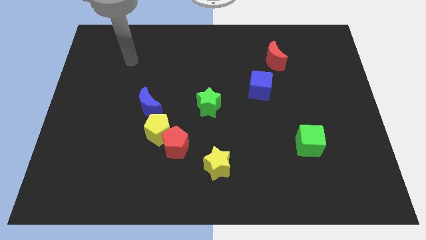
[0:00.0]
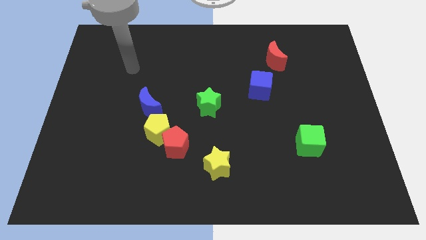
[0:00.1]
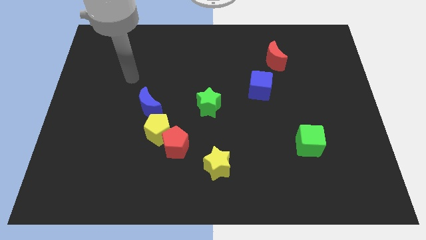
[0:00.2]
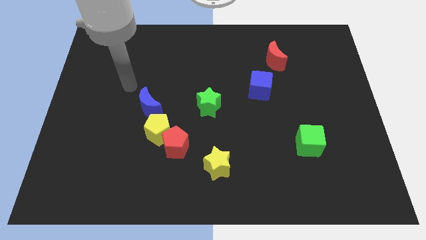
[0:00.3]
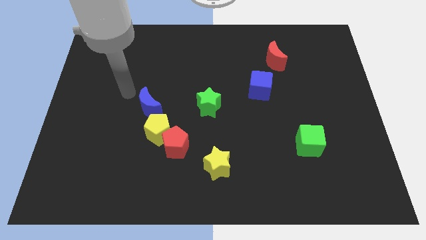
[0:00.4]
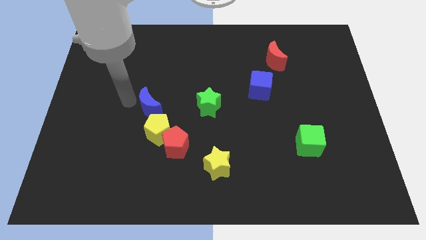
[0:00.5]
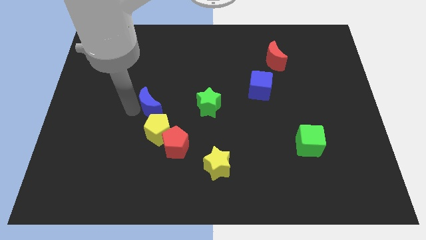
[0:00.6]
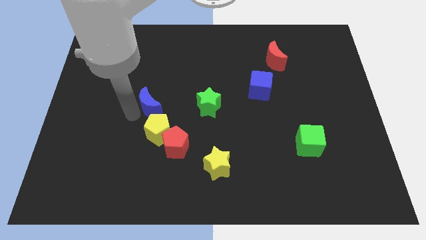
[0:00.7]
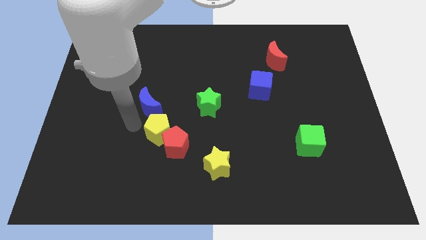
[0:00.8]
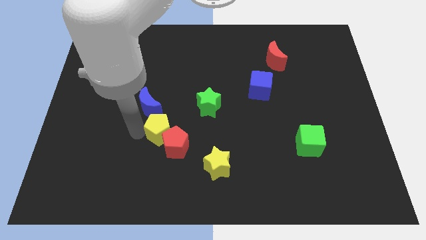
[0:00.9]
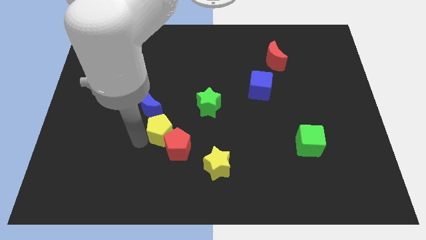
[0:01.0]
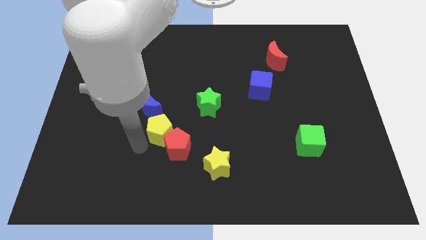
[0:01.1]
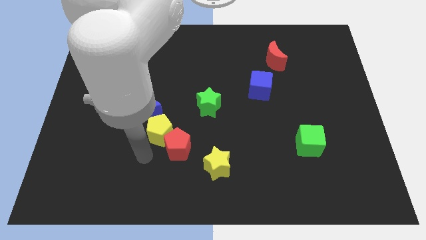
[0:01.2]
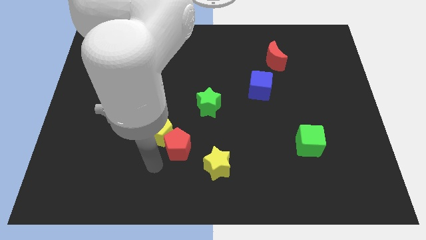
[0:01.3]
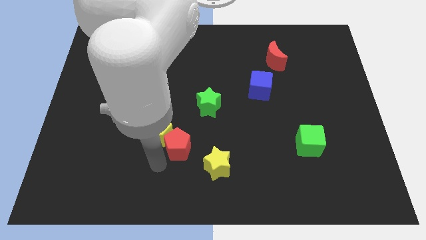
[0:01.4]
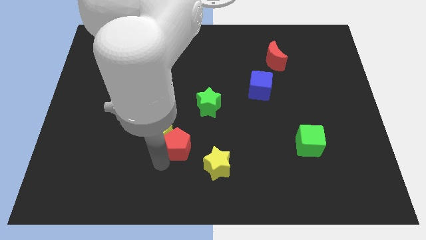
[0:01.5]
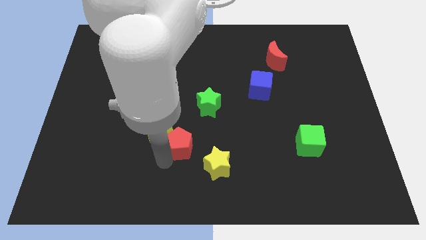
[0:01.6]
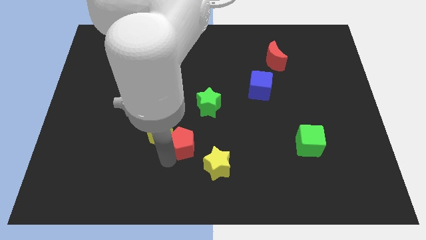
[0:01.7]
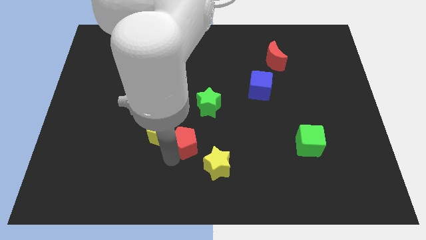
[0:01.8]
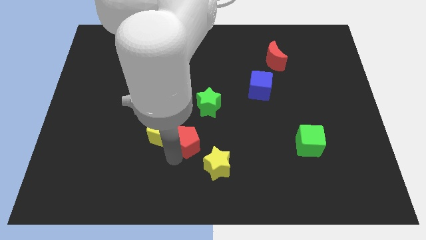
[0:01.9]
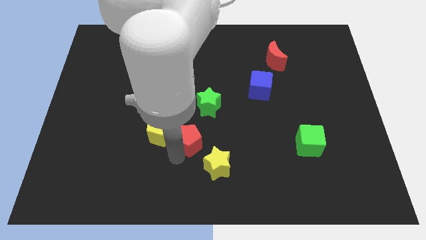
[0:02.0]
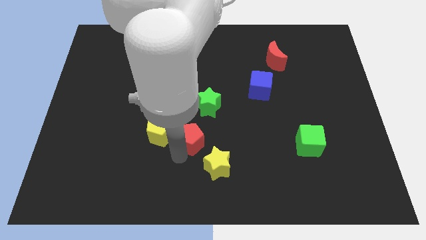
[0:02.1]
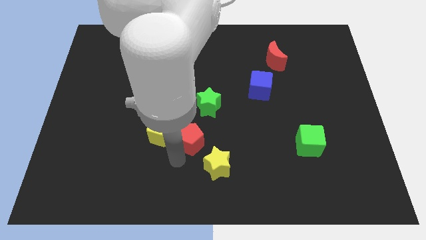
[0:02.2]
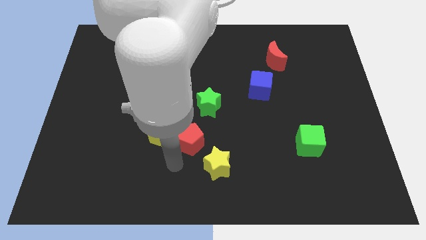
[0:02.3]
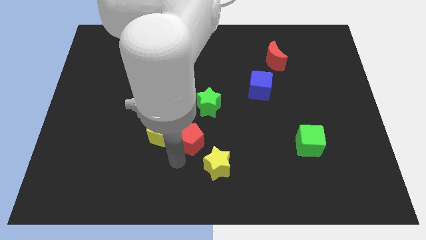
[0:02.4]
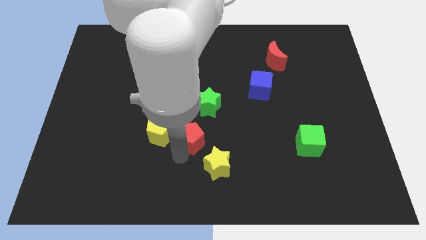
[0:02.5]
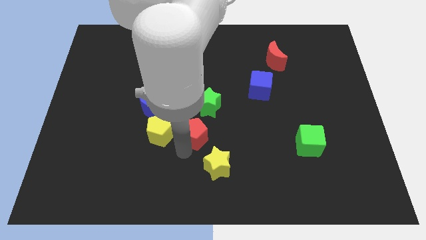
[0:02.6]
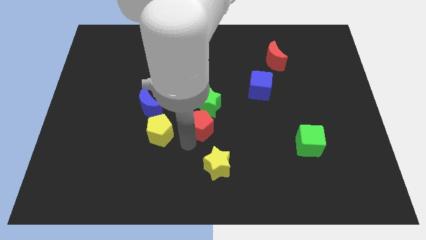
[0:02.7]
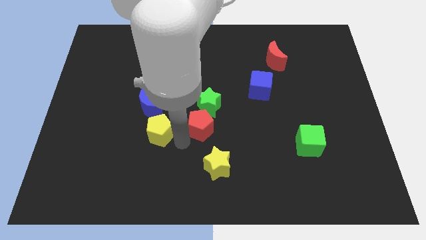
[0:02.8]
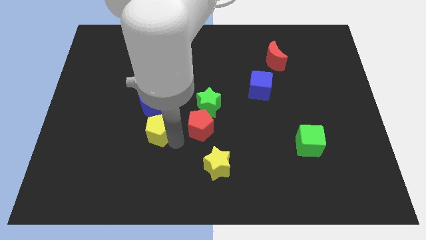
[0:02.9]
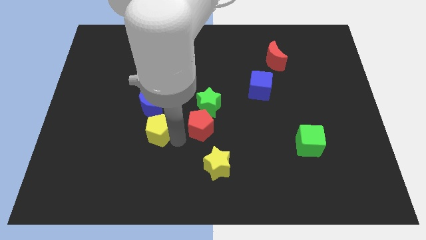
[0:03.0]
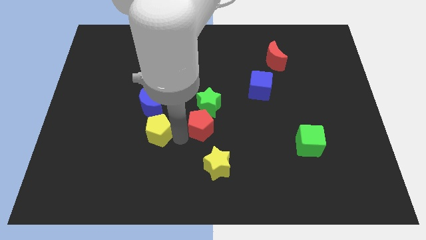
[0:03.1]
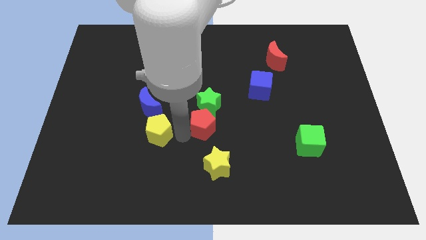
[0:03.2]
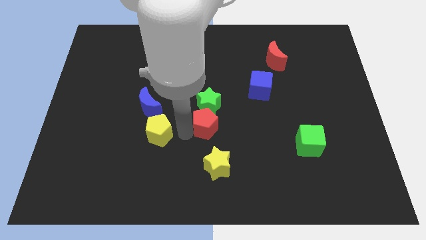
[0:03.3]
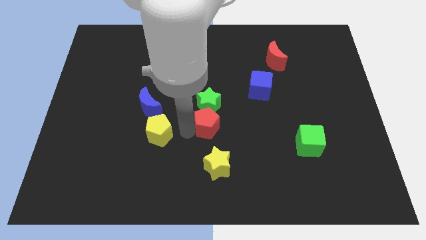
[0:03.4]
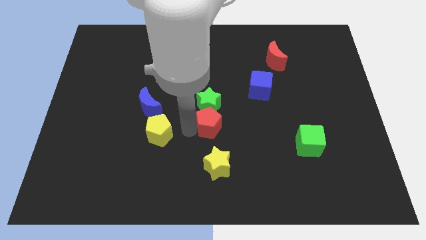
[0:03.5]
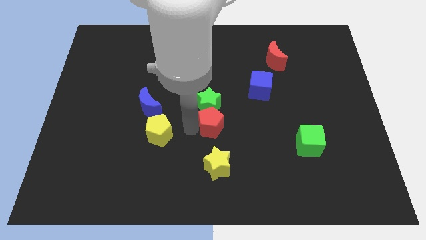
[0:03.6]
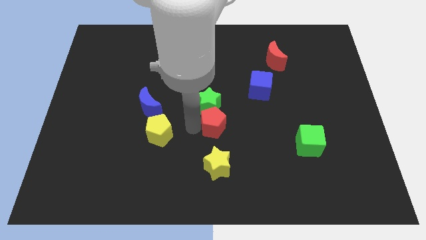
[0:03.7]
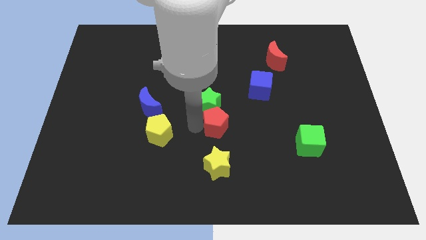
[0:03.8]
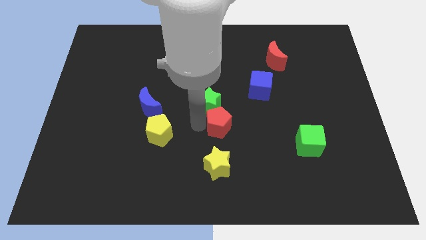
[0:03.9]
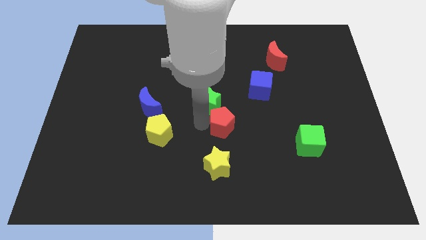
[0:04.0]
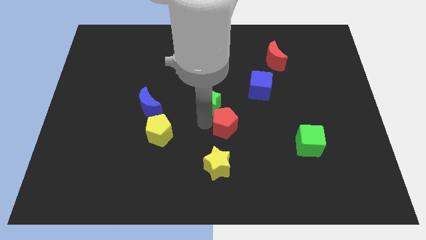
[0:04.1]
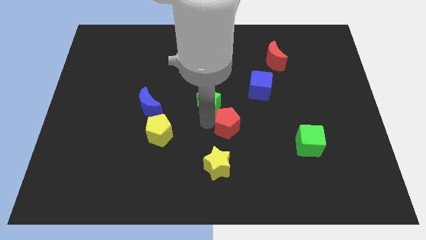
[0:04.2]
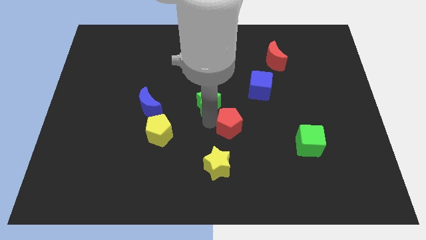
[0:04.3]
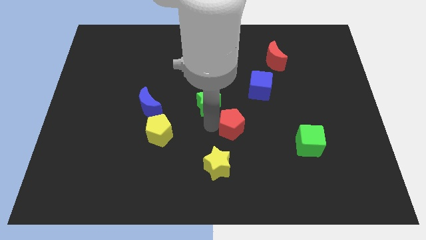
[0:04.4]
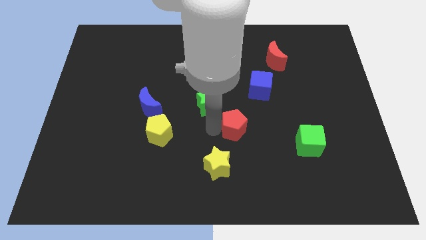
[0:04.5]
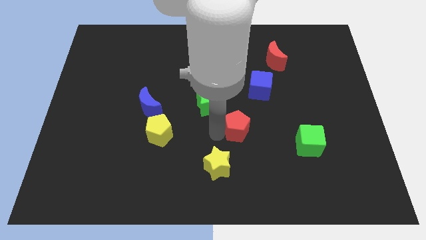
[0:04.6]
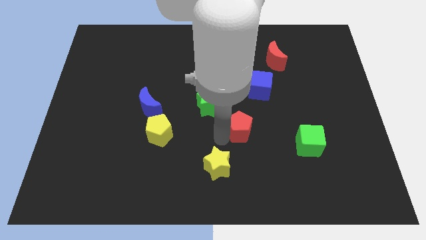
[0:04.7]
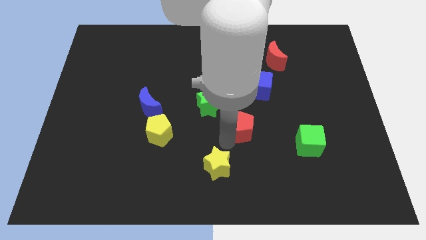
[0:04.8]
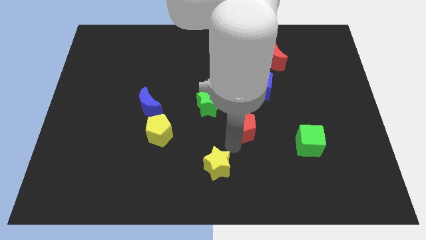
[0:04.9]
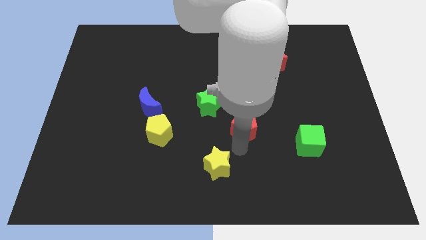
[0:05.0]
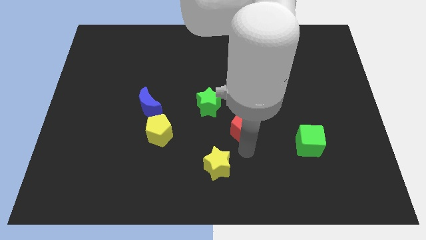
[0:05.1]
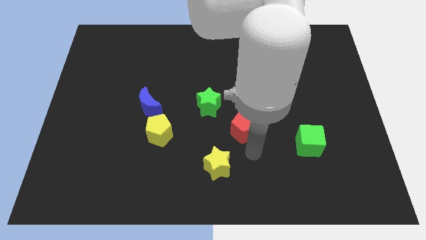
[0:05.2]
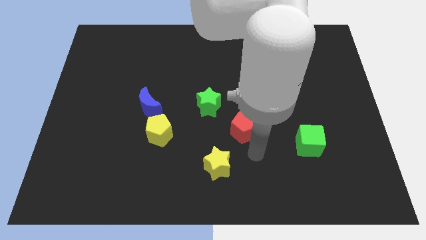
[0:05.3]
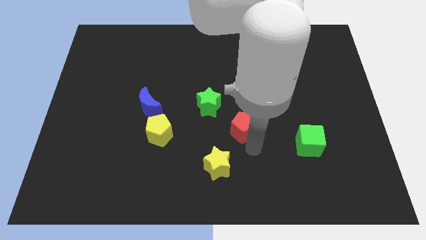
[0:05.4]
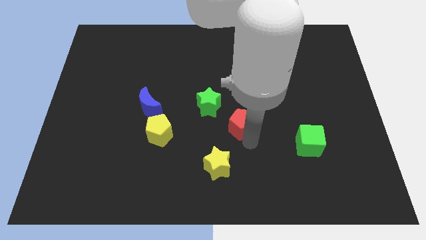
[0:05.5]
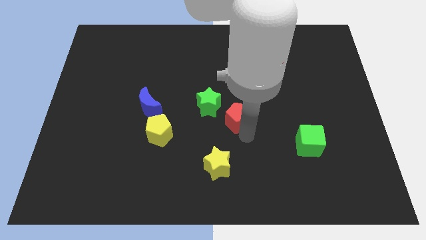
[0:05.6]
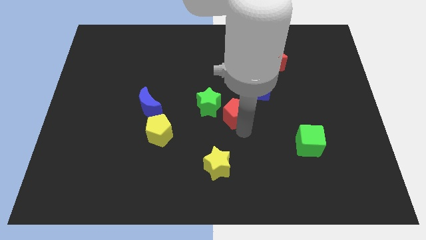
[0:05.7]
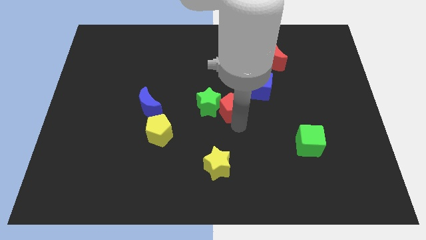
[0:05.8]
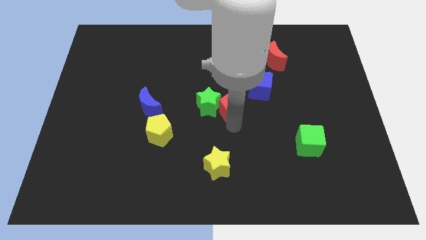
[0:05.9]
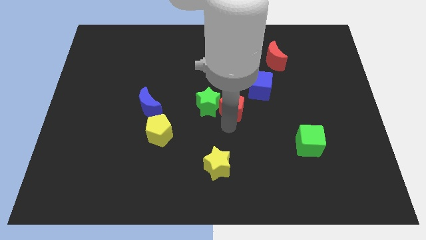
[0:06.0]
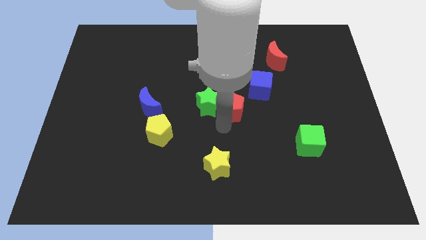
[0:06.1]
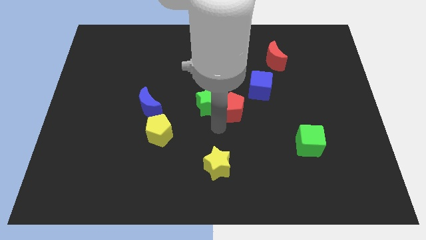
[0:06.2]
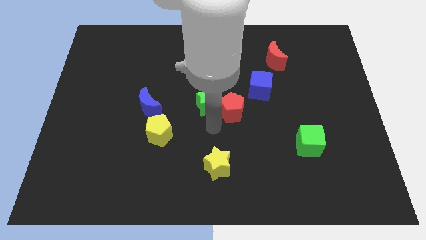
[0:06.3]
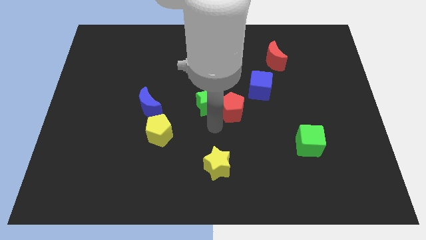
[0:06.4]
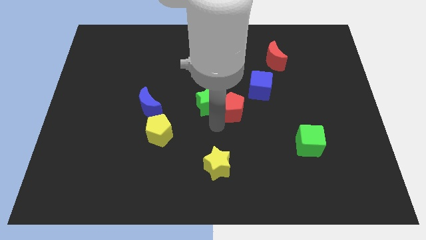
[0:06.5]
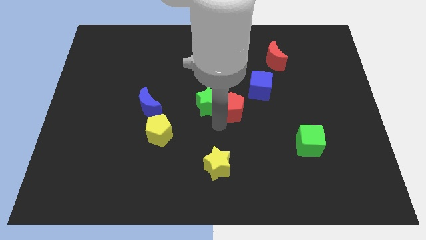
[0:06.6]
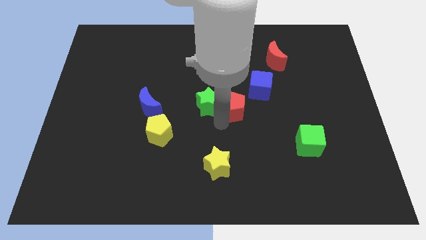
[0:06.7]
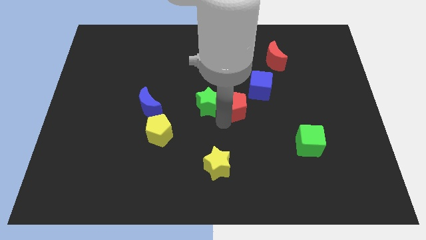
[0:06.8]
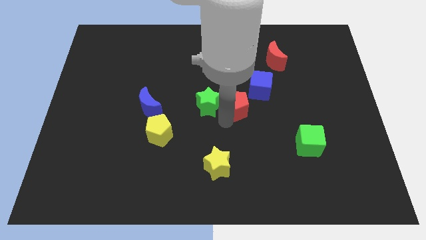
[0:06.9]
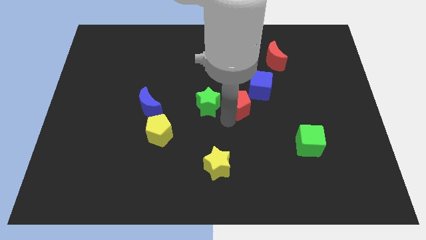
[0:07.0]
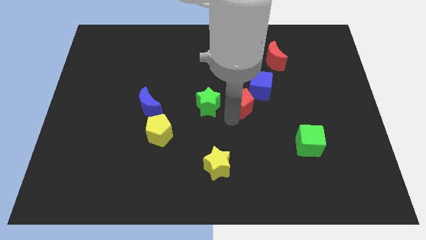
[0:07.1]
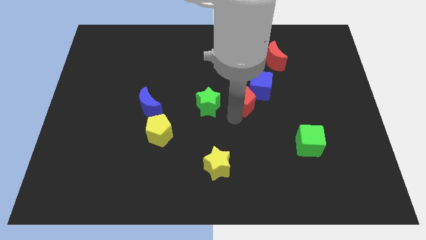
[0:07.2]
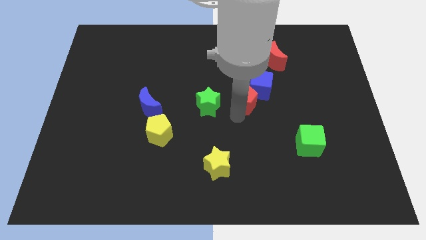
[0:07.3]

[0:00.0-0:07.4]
push the red pentagon next to the blue cube
